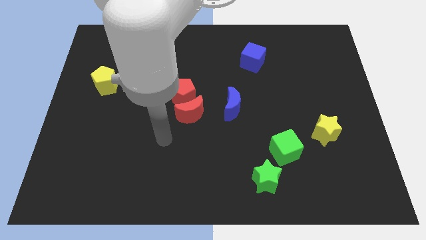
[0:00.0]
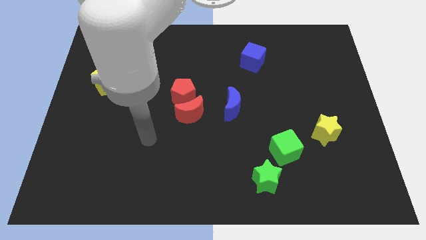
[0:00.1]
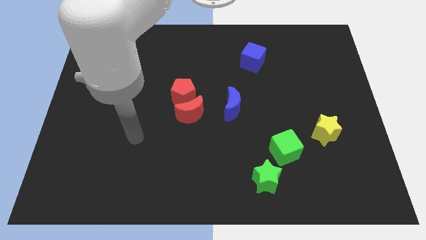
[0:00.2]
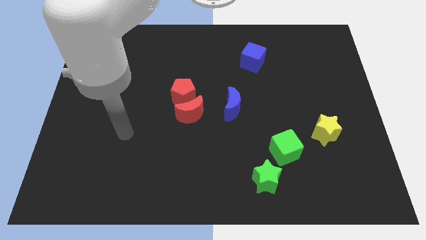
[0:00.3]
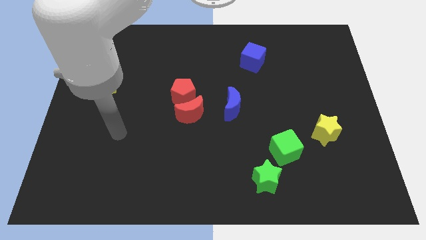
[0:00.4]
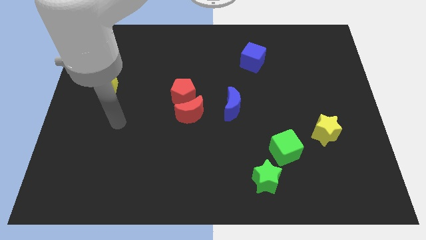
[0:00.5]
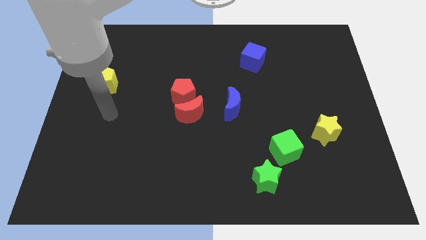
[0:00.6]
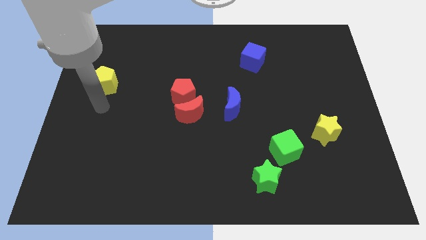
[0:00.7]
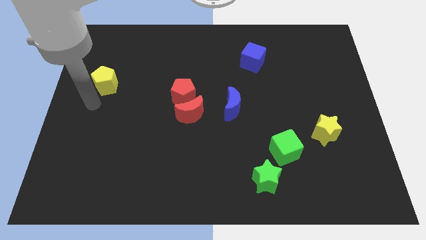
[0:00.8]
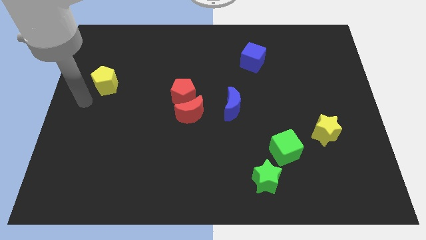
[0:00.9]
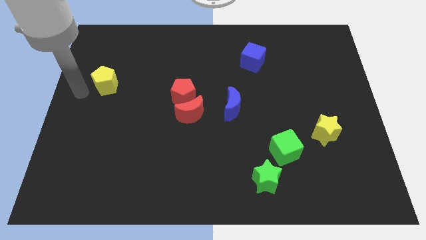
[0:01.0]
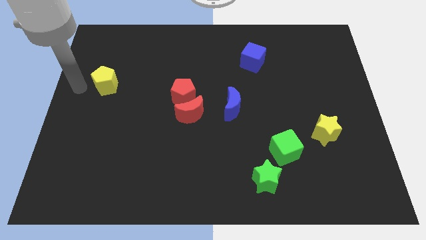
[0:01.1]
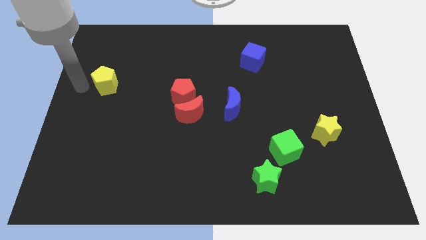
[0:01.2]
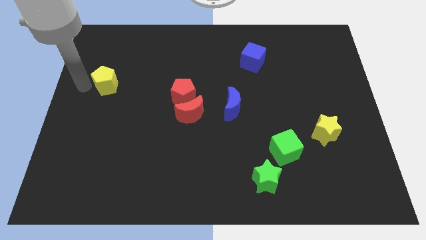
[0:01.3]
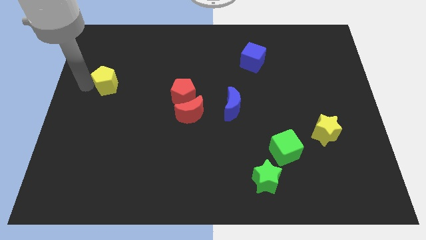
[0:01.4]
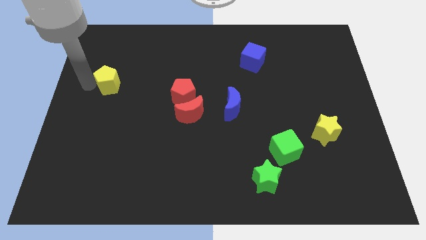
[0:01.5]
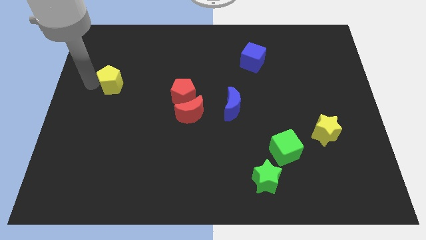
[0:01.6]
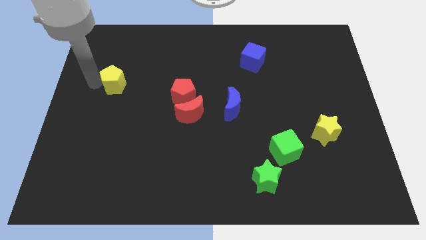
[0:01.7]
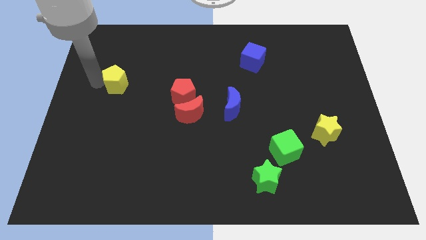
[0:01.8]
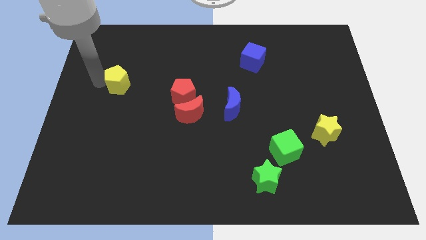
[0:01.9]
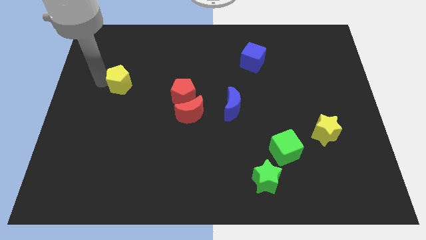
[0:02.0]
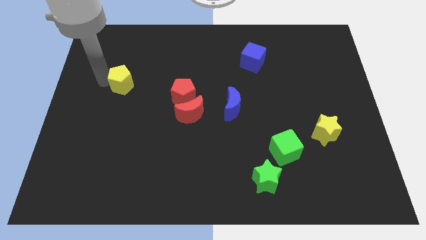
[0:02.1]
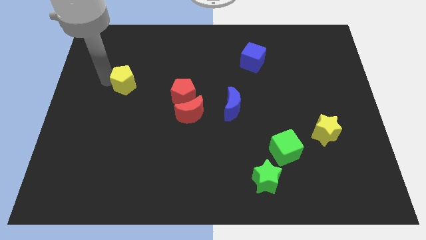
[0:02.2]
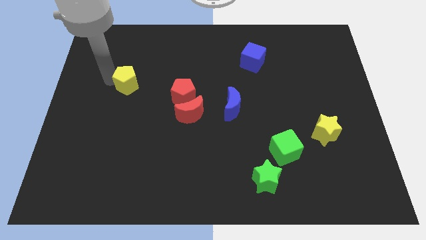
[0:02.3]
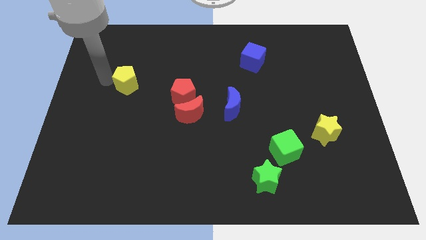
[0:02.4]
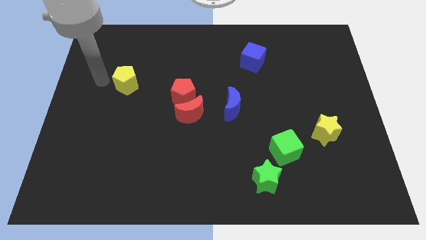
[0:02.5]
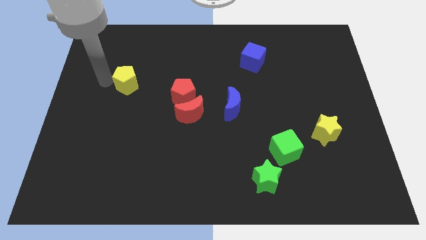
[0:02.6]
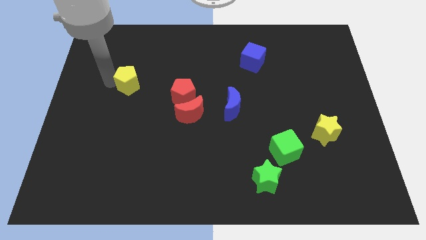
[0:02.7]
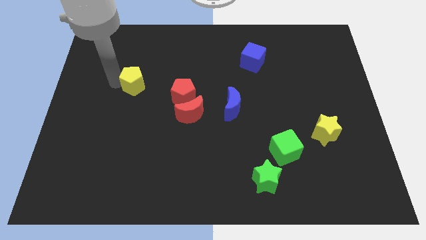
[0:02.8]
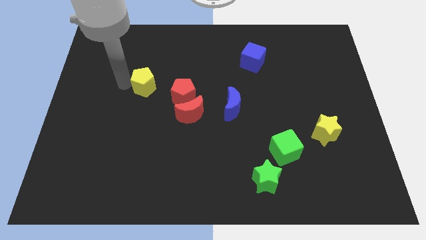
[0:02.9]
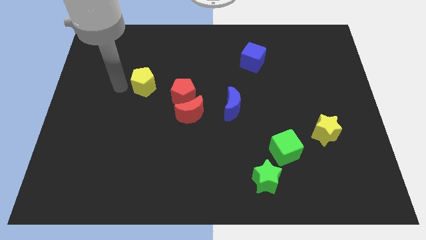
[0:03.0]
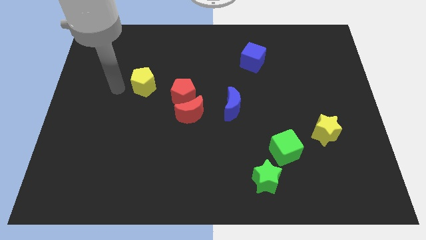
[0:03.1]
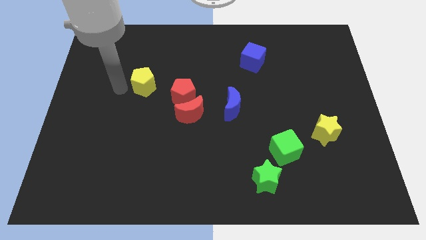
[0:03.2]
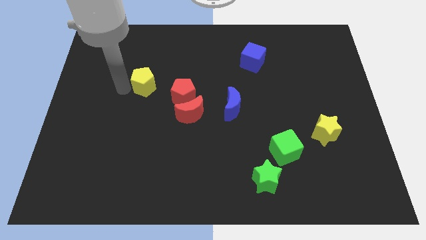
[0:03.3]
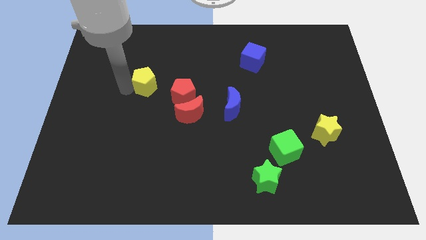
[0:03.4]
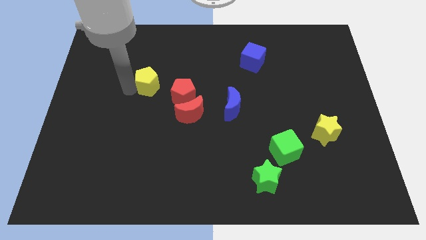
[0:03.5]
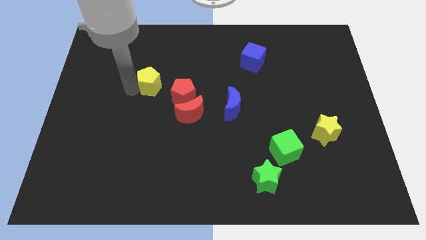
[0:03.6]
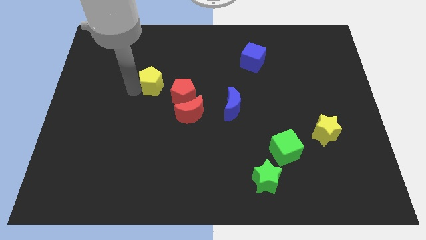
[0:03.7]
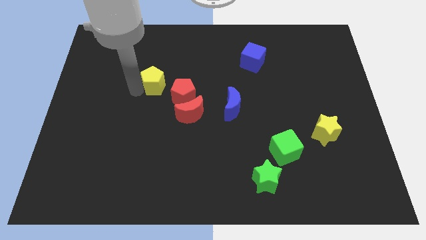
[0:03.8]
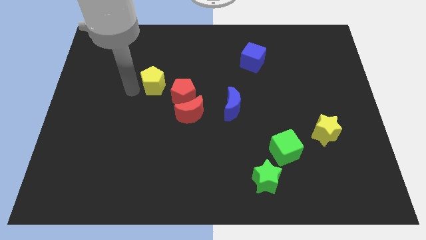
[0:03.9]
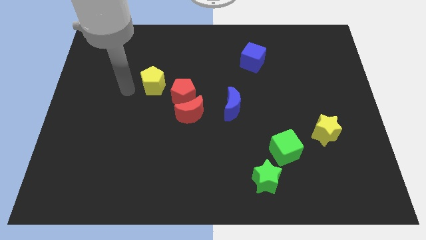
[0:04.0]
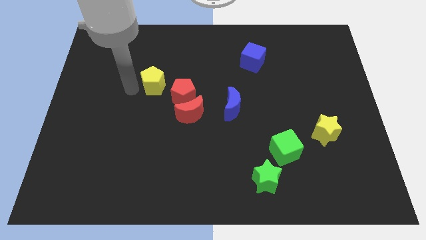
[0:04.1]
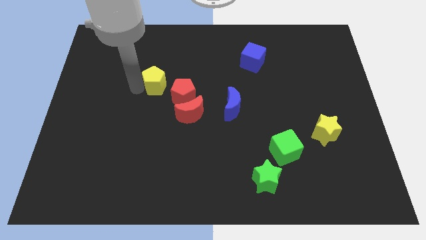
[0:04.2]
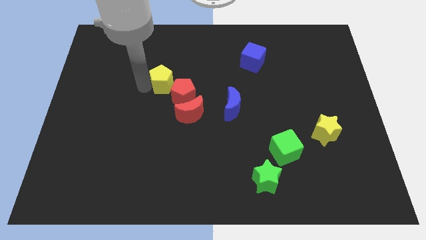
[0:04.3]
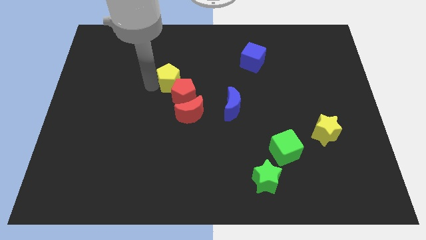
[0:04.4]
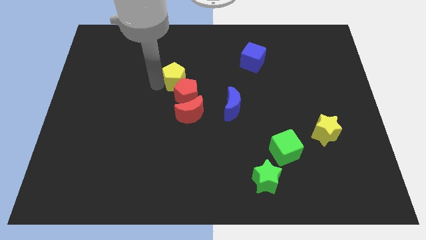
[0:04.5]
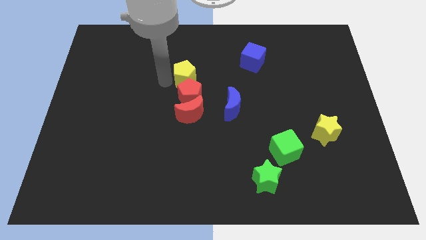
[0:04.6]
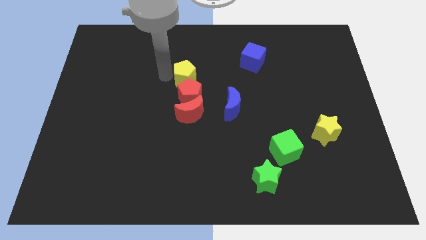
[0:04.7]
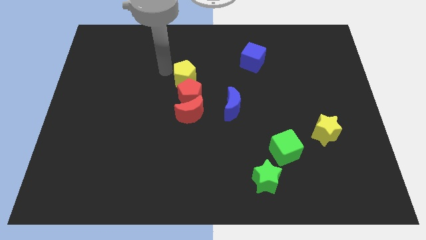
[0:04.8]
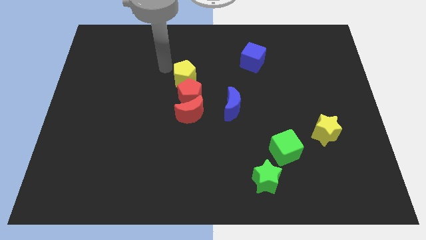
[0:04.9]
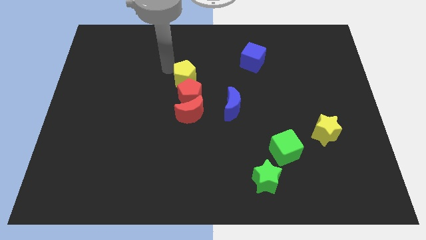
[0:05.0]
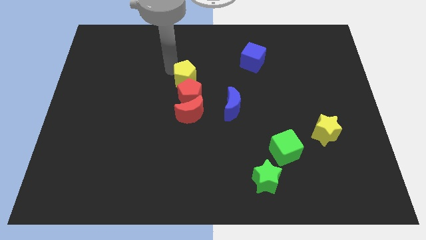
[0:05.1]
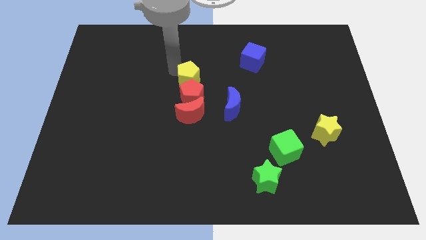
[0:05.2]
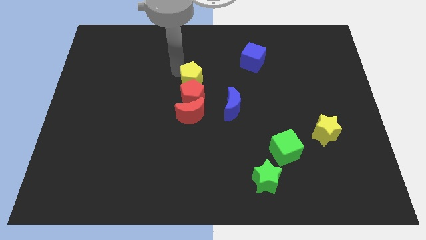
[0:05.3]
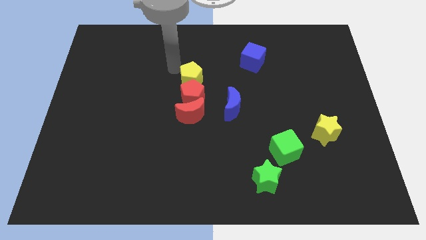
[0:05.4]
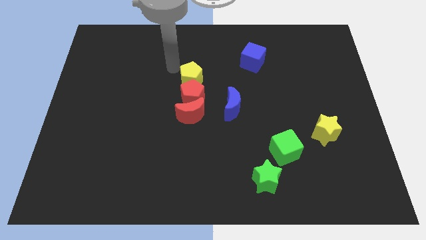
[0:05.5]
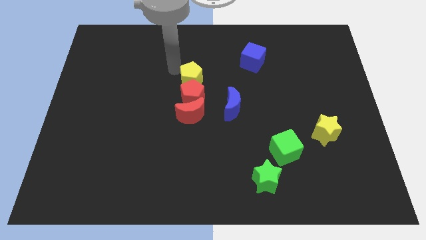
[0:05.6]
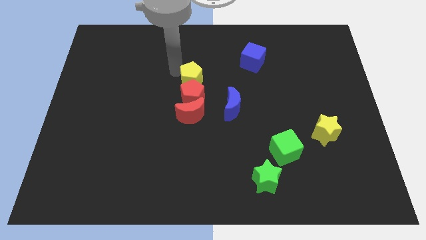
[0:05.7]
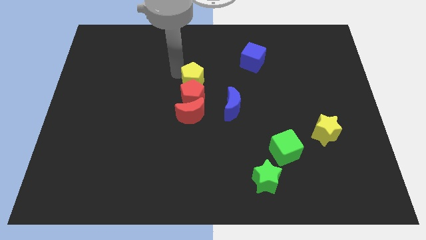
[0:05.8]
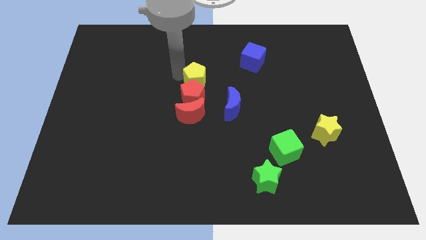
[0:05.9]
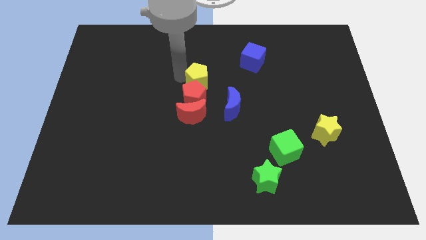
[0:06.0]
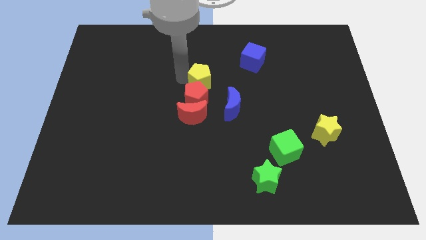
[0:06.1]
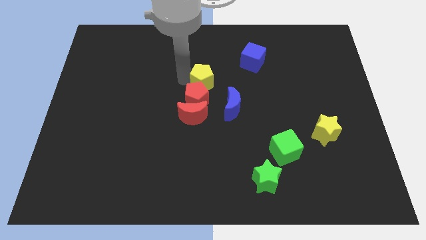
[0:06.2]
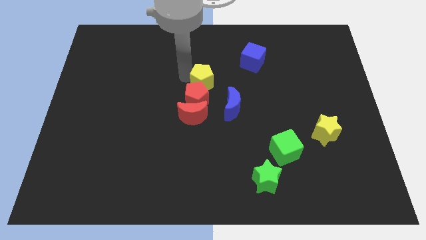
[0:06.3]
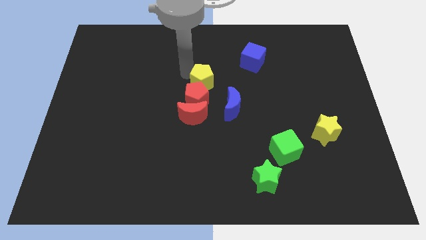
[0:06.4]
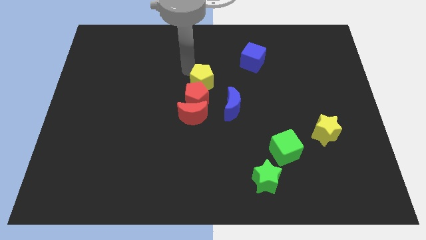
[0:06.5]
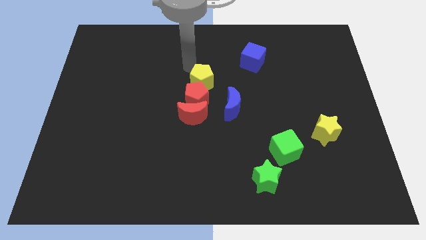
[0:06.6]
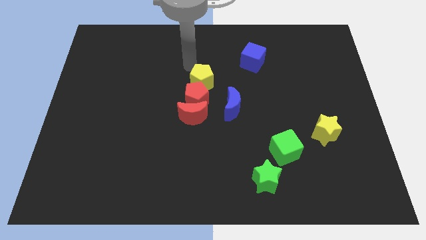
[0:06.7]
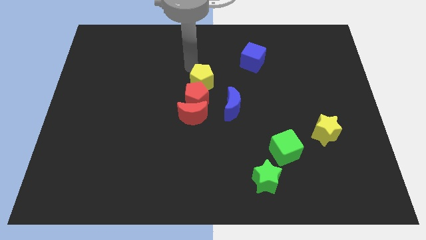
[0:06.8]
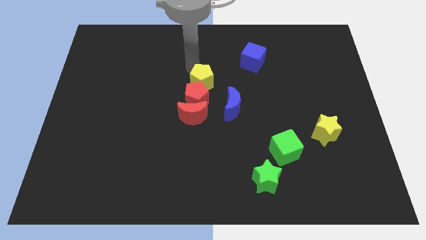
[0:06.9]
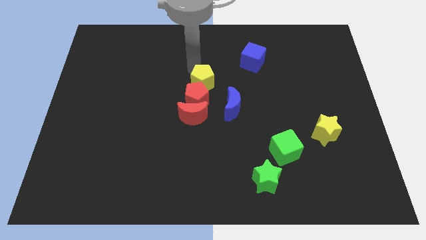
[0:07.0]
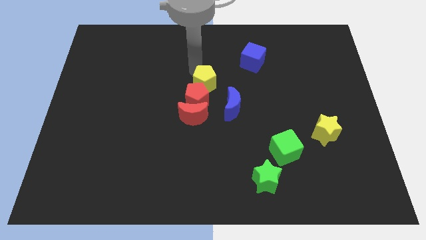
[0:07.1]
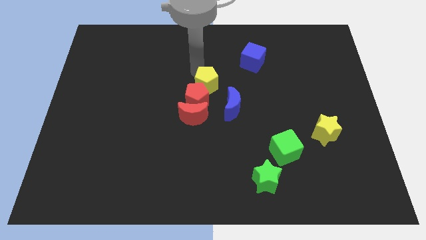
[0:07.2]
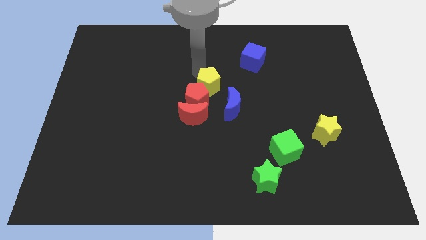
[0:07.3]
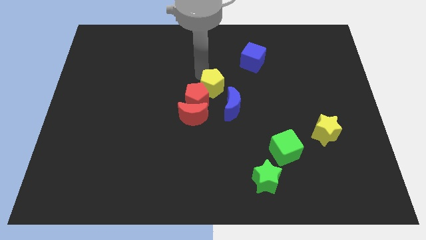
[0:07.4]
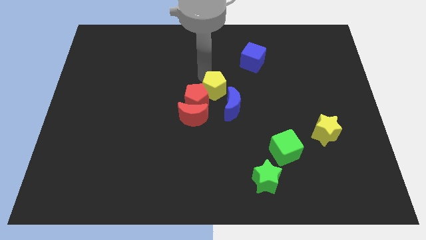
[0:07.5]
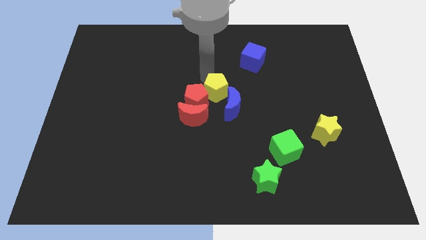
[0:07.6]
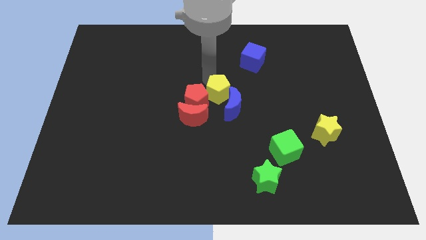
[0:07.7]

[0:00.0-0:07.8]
move the yellow pentagon next to the blue moon
